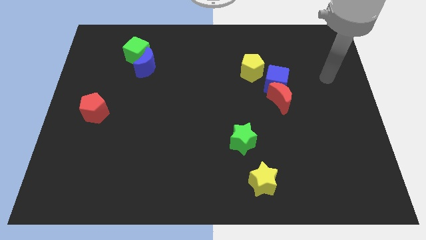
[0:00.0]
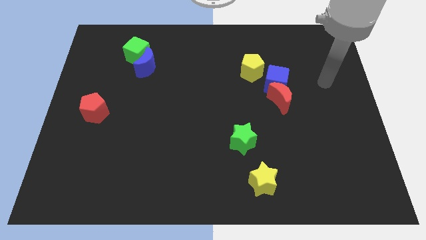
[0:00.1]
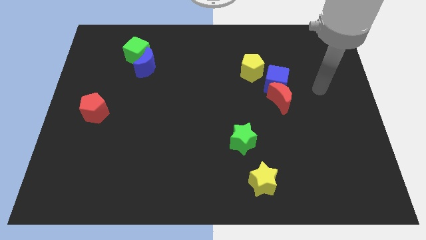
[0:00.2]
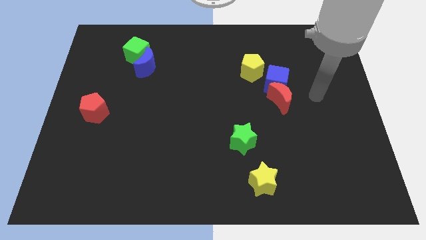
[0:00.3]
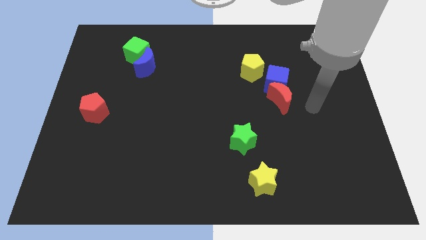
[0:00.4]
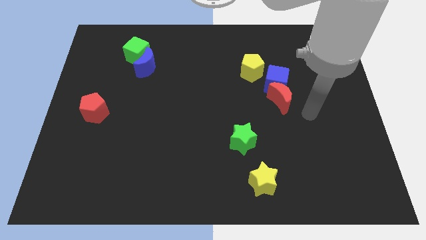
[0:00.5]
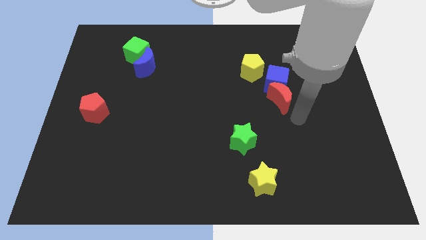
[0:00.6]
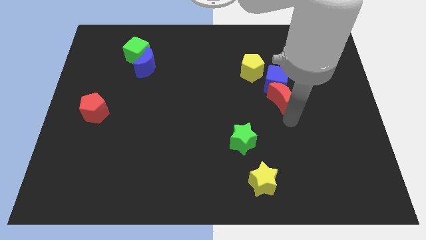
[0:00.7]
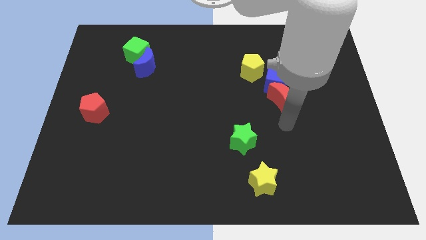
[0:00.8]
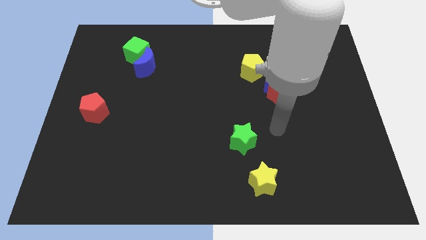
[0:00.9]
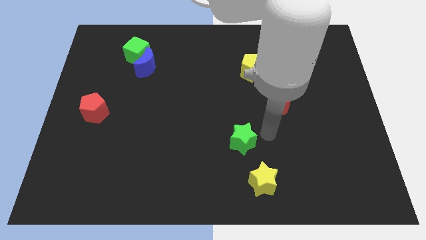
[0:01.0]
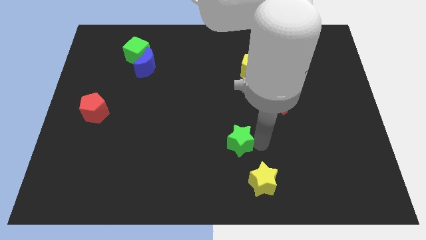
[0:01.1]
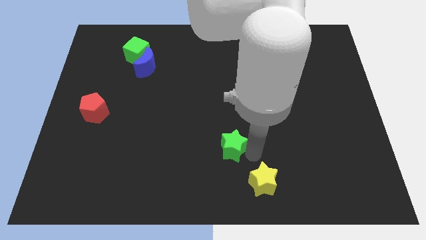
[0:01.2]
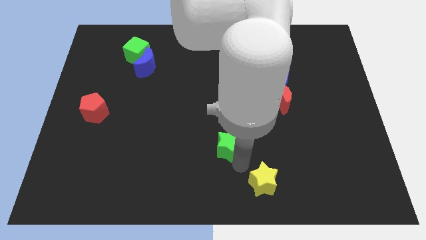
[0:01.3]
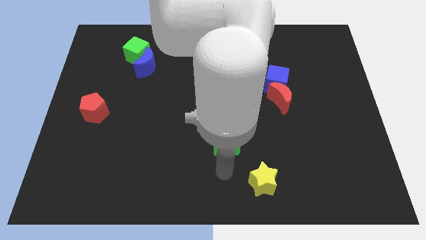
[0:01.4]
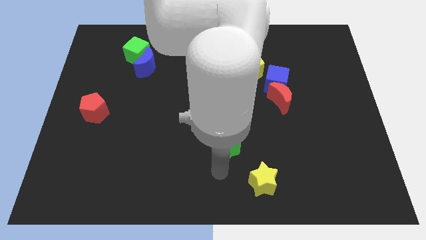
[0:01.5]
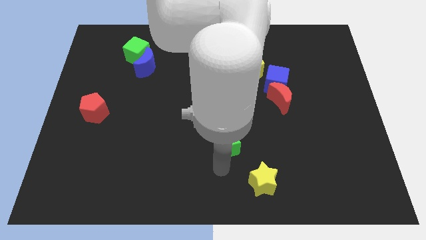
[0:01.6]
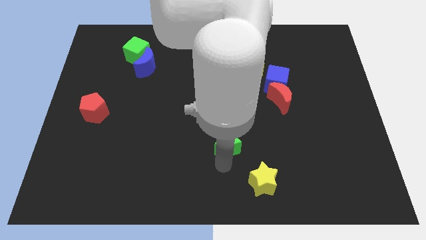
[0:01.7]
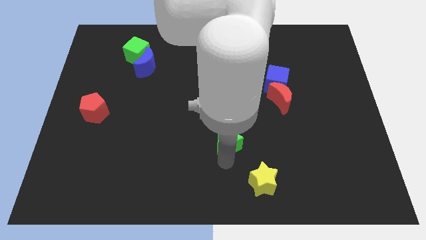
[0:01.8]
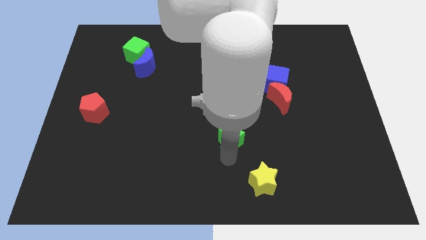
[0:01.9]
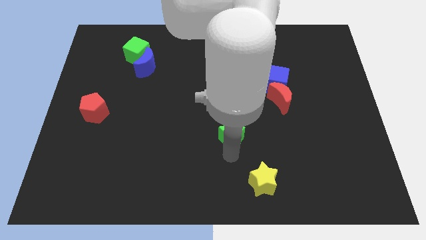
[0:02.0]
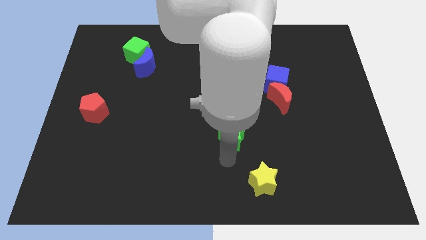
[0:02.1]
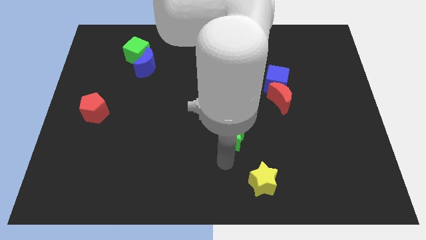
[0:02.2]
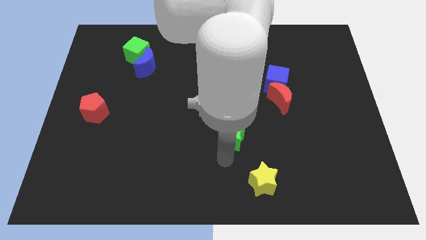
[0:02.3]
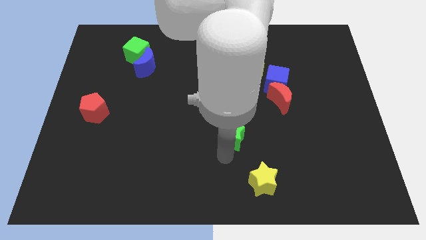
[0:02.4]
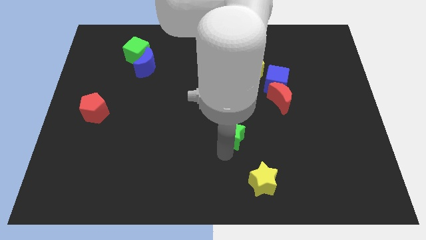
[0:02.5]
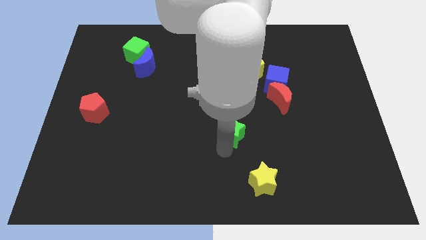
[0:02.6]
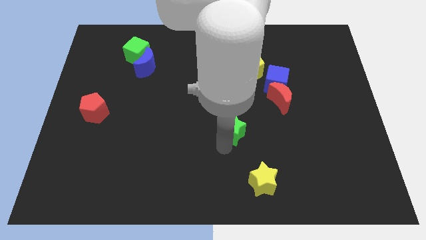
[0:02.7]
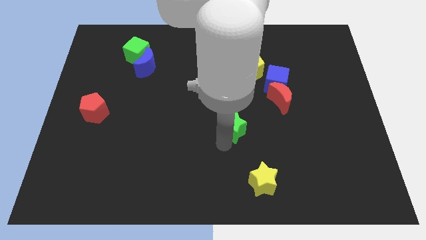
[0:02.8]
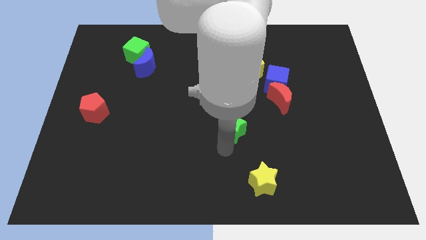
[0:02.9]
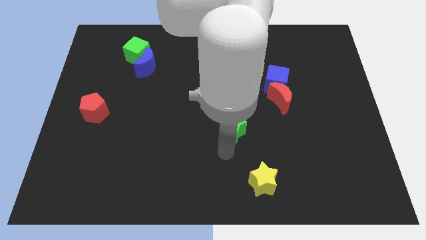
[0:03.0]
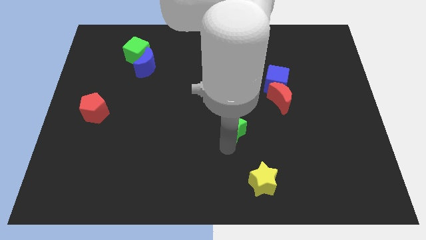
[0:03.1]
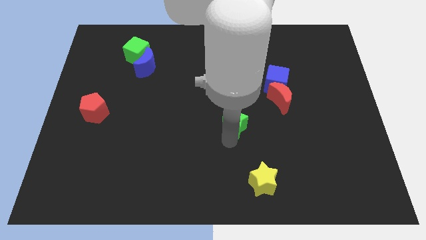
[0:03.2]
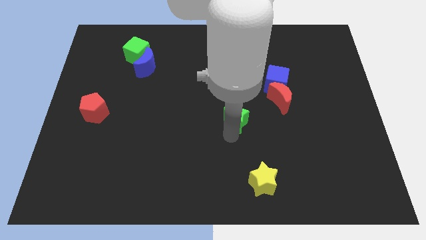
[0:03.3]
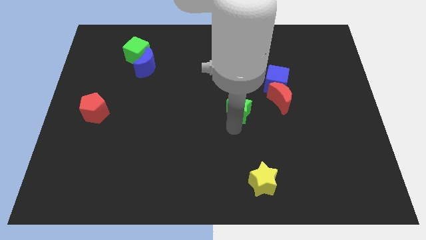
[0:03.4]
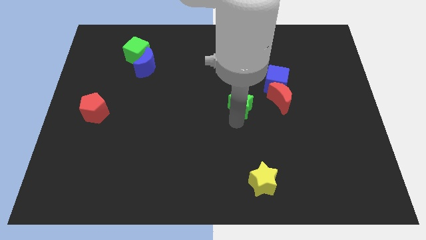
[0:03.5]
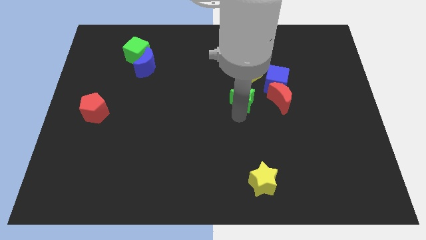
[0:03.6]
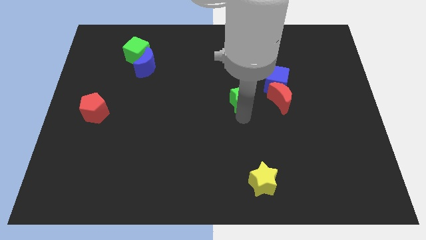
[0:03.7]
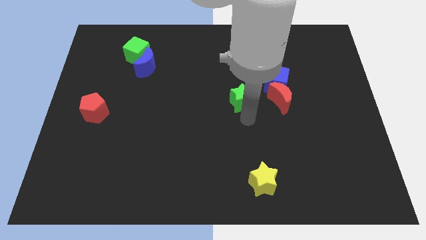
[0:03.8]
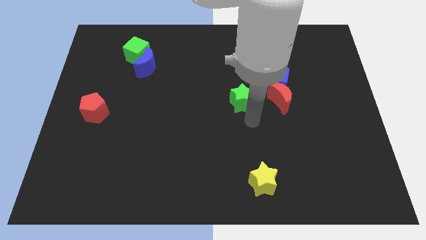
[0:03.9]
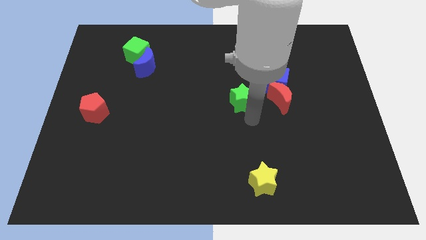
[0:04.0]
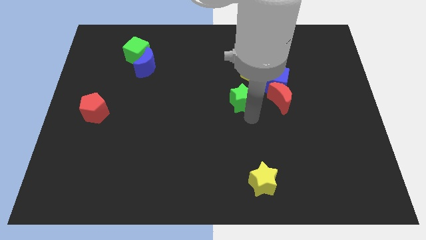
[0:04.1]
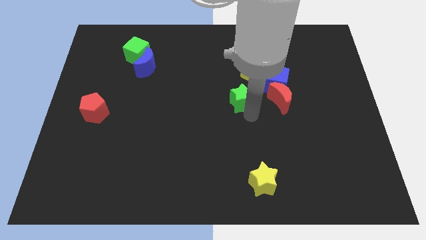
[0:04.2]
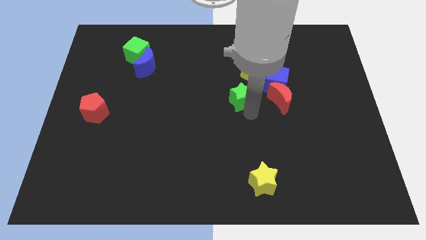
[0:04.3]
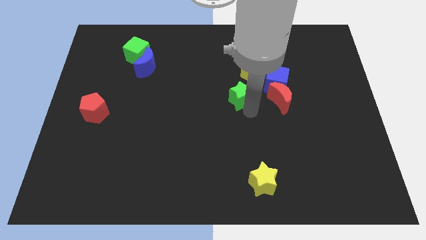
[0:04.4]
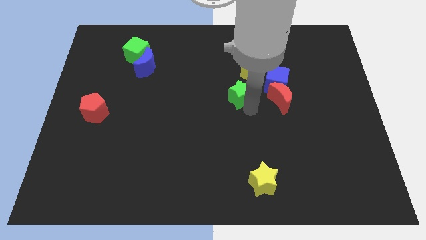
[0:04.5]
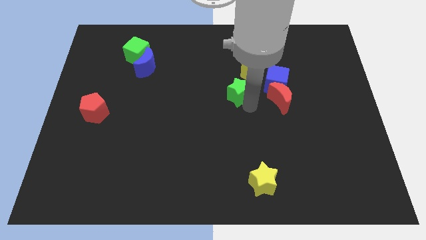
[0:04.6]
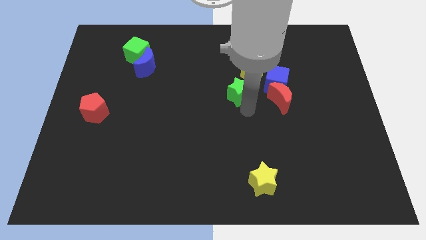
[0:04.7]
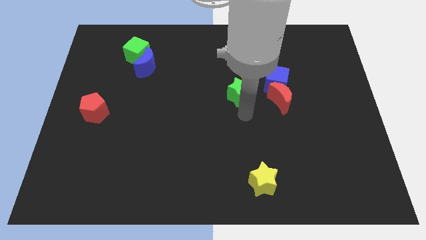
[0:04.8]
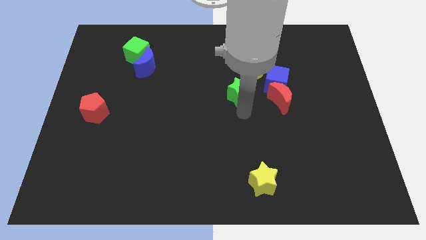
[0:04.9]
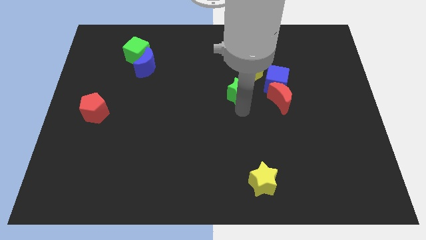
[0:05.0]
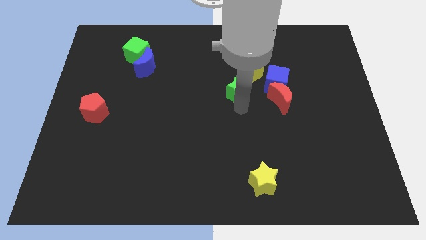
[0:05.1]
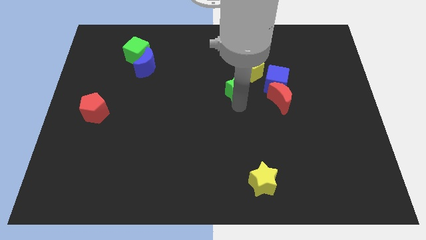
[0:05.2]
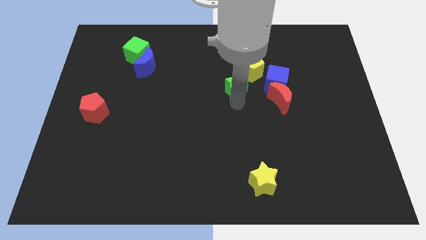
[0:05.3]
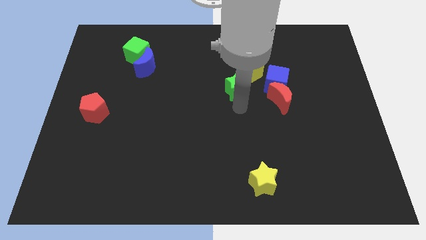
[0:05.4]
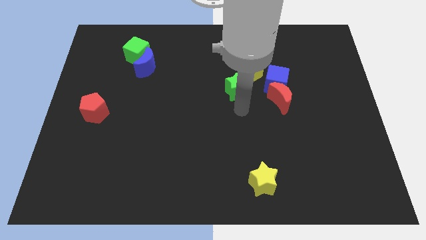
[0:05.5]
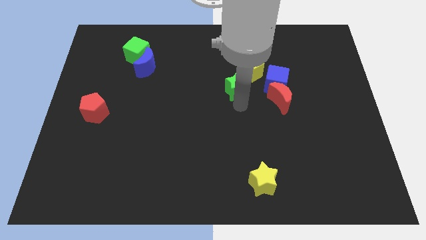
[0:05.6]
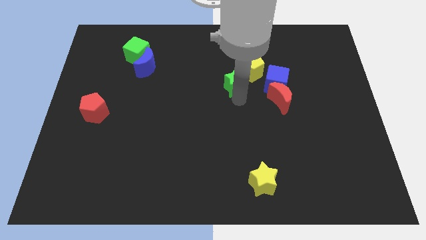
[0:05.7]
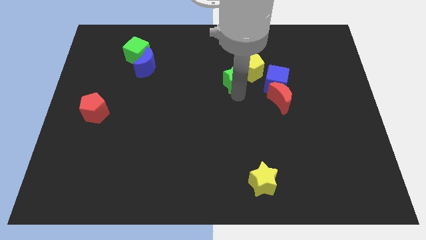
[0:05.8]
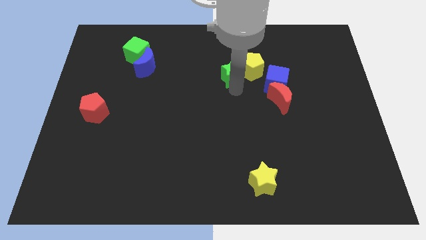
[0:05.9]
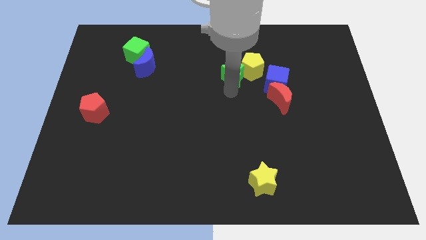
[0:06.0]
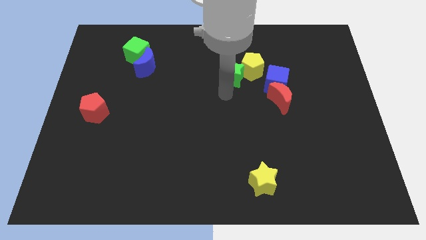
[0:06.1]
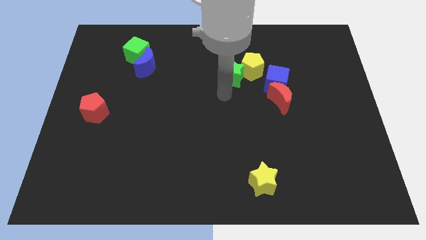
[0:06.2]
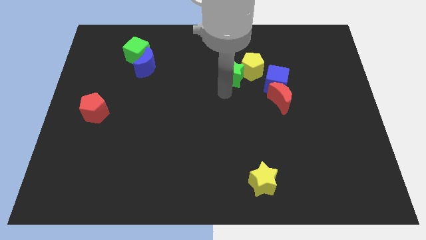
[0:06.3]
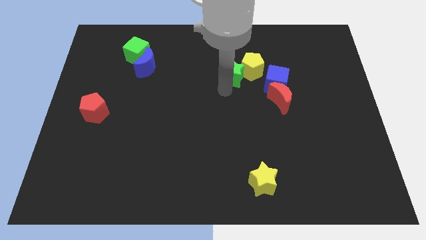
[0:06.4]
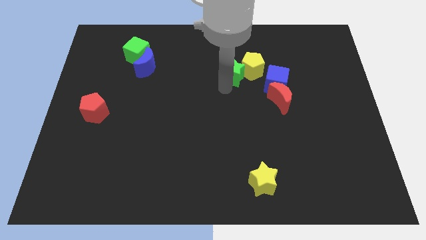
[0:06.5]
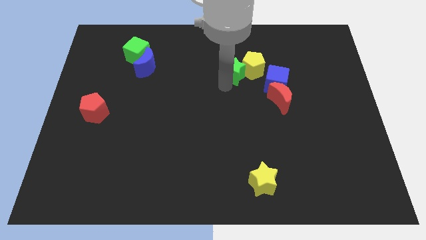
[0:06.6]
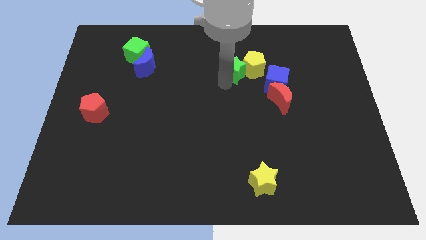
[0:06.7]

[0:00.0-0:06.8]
put the green star to the top left of the blue cube
